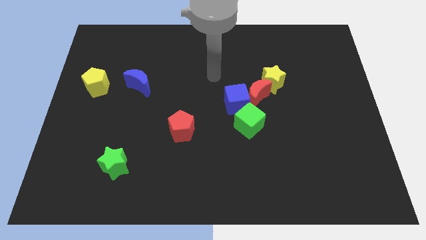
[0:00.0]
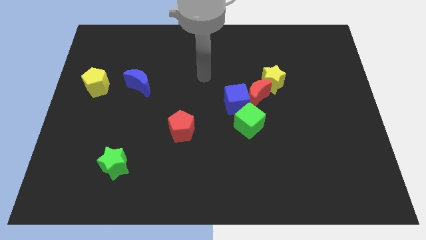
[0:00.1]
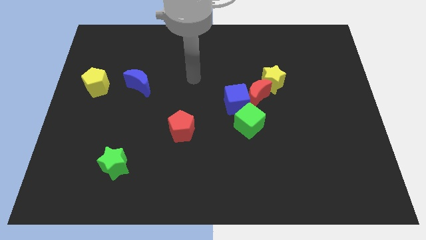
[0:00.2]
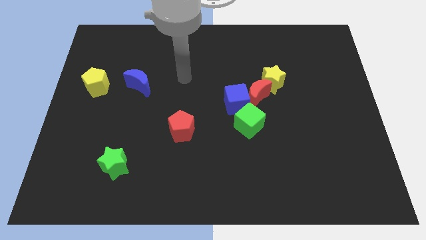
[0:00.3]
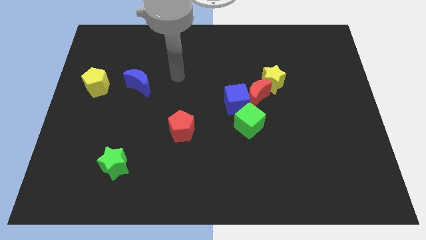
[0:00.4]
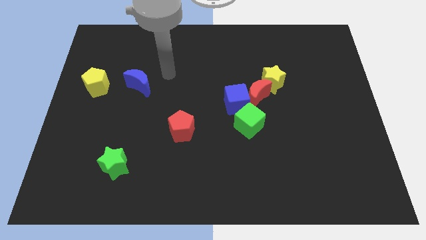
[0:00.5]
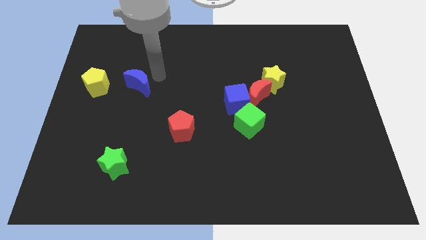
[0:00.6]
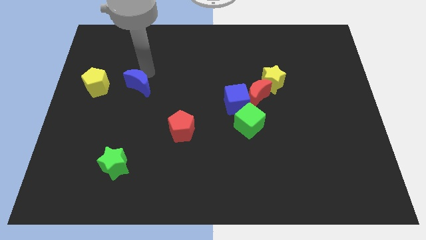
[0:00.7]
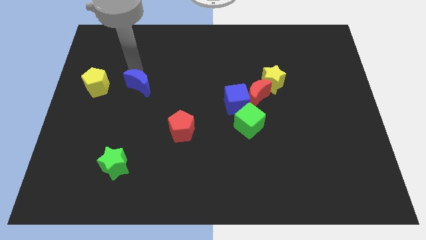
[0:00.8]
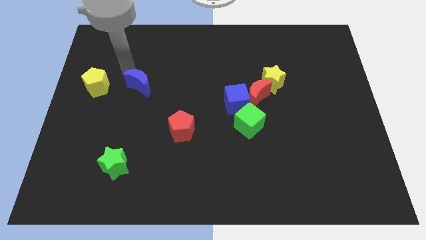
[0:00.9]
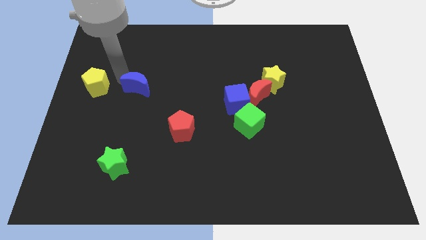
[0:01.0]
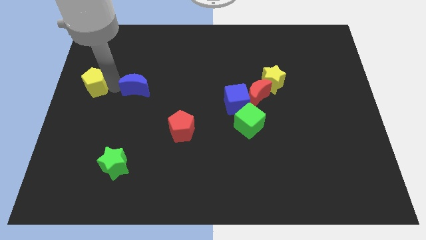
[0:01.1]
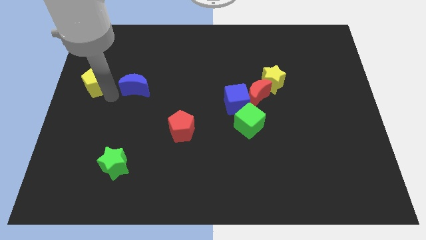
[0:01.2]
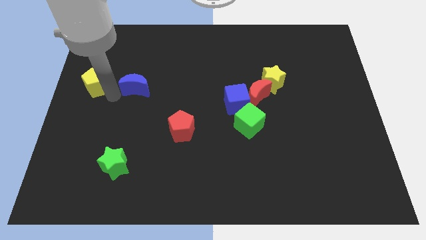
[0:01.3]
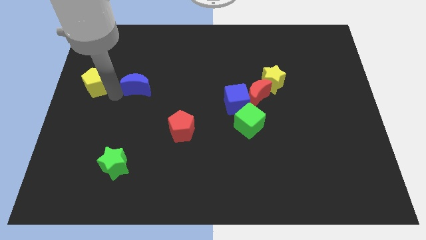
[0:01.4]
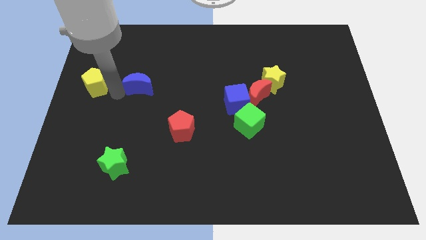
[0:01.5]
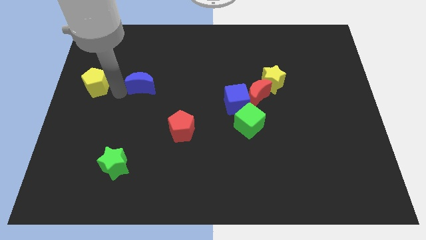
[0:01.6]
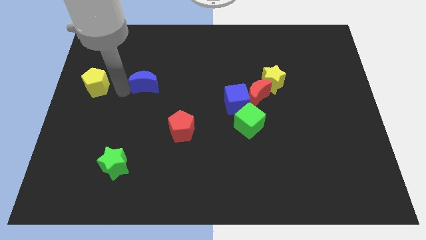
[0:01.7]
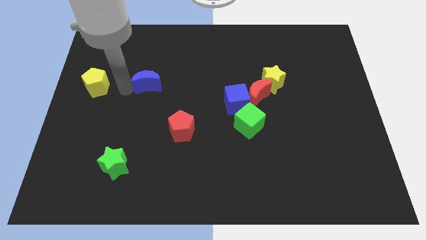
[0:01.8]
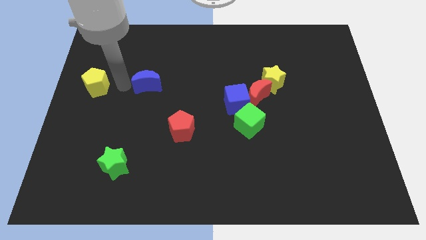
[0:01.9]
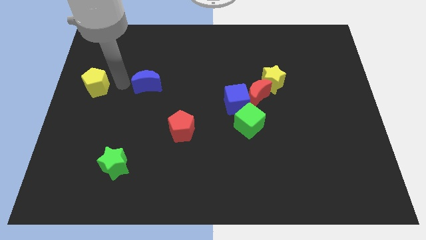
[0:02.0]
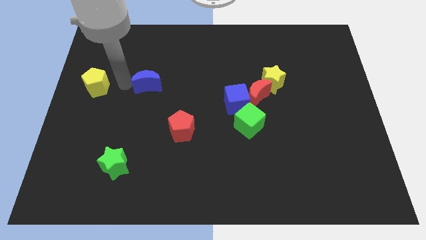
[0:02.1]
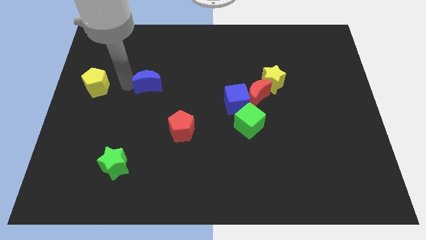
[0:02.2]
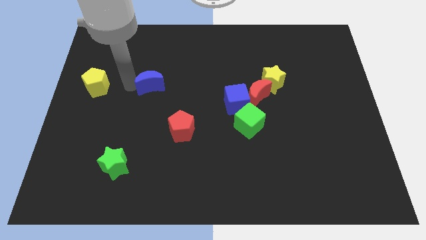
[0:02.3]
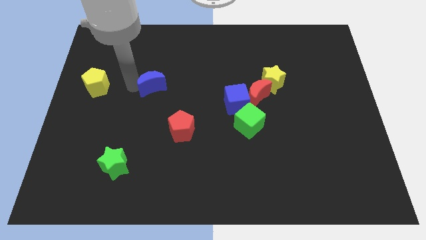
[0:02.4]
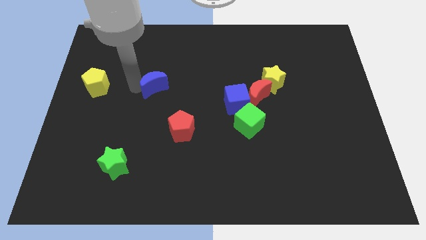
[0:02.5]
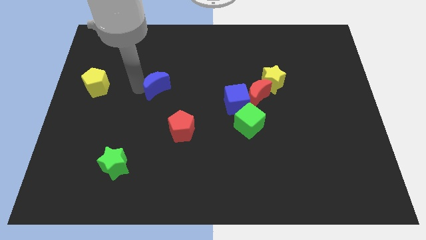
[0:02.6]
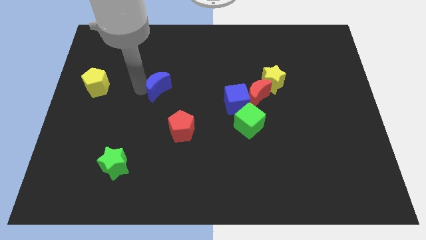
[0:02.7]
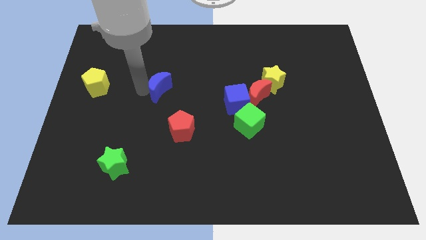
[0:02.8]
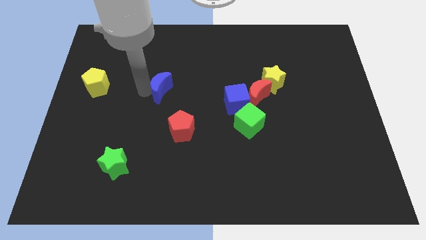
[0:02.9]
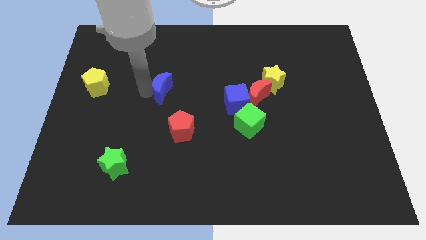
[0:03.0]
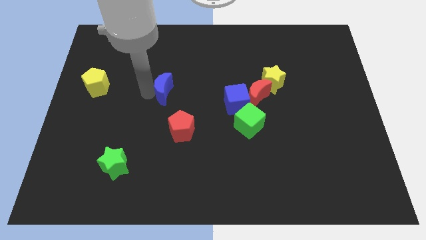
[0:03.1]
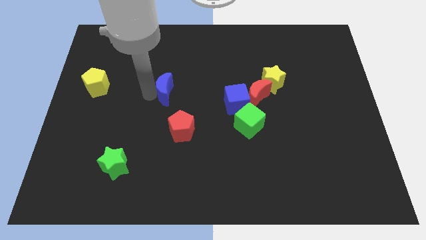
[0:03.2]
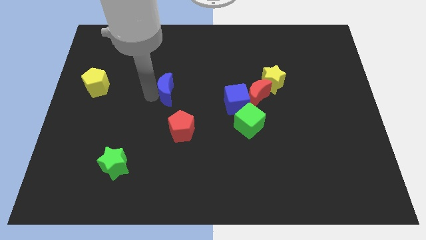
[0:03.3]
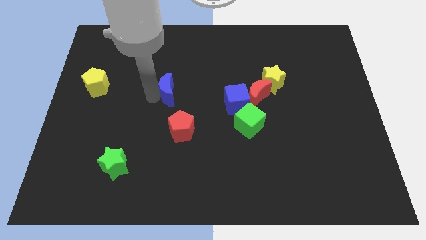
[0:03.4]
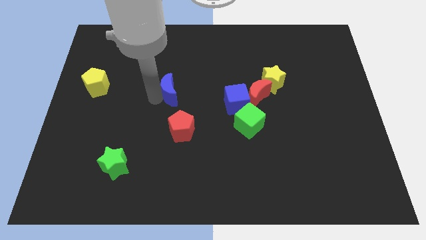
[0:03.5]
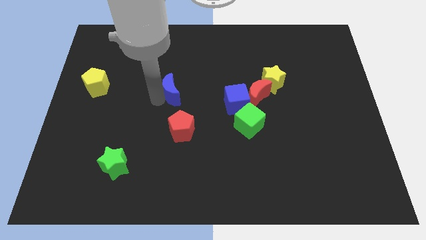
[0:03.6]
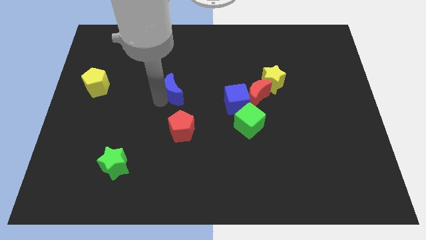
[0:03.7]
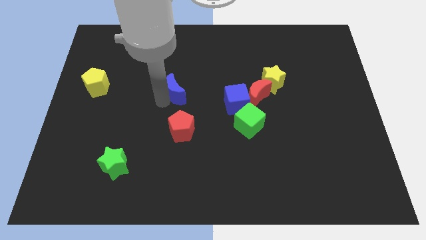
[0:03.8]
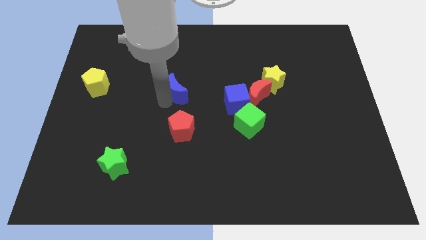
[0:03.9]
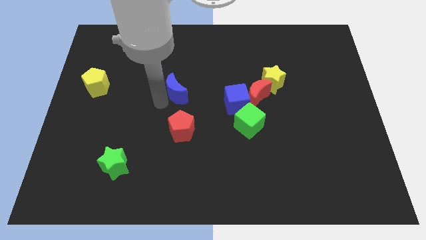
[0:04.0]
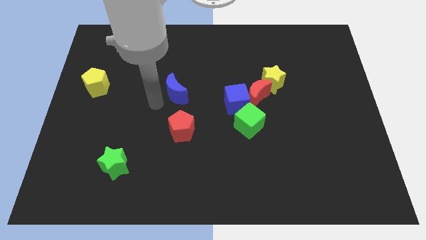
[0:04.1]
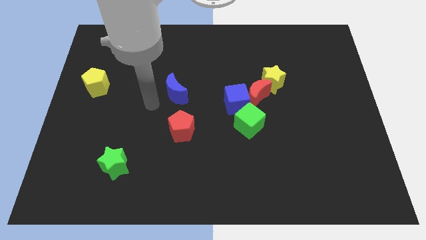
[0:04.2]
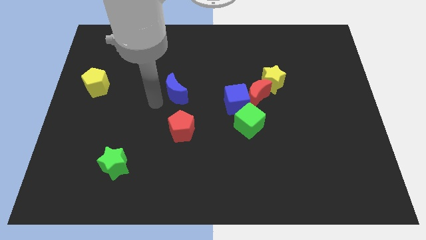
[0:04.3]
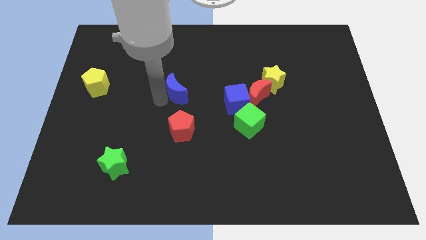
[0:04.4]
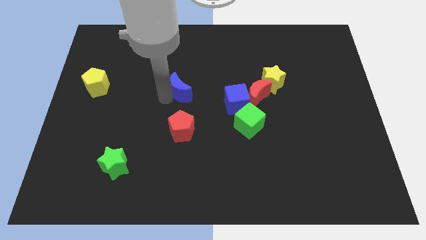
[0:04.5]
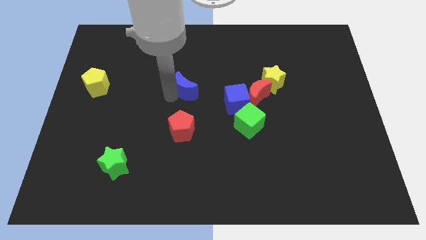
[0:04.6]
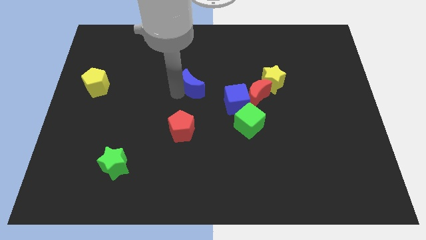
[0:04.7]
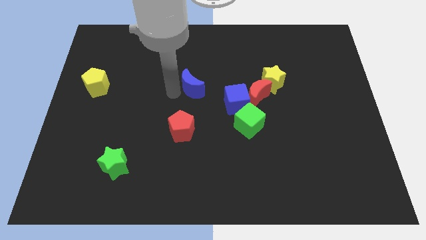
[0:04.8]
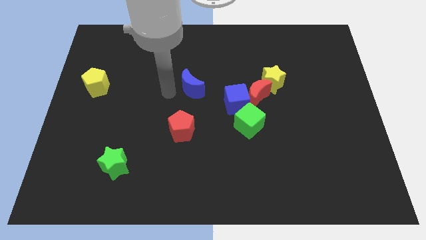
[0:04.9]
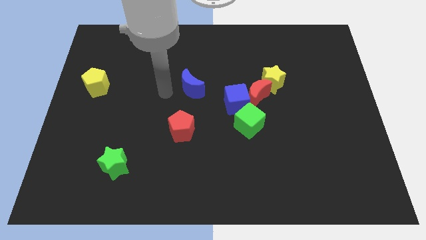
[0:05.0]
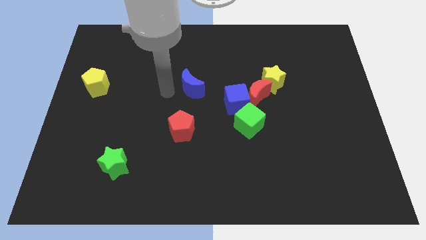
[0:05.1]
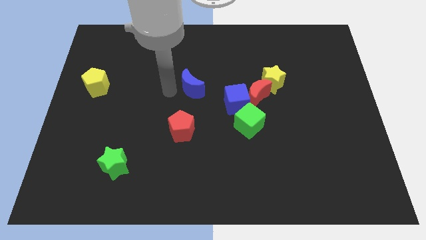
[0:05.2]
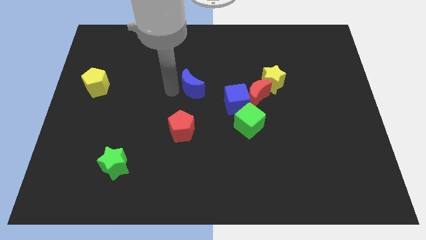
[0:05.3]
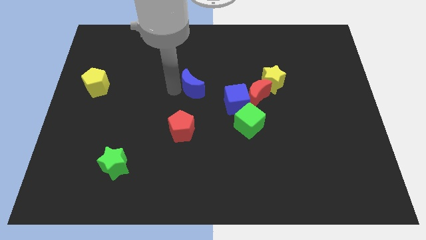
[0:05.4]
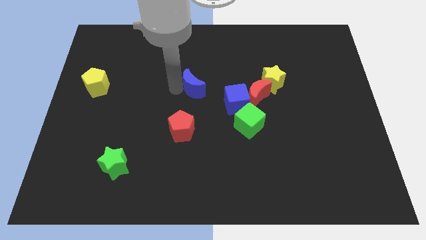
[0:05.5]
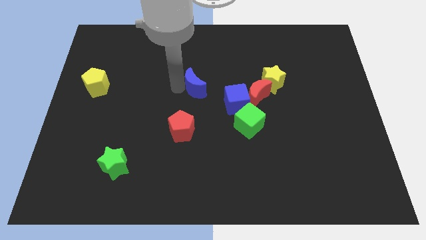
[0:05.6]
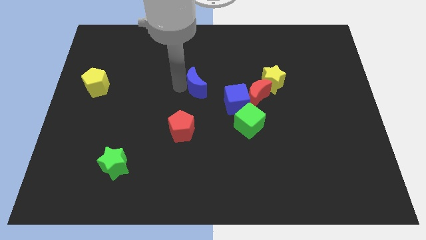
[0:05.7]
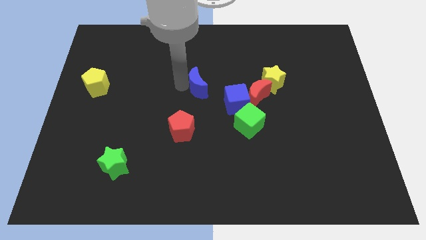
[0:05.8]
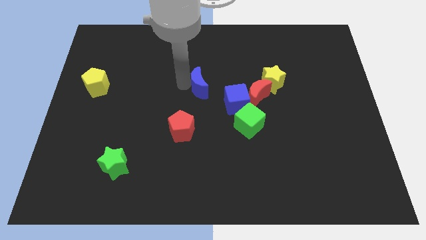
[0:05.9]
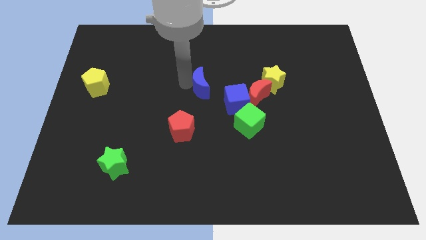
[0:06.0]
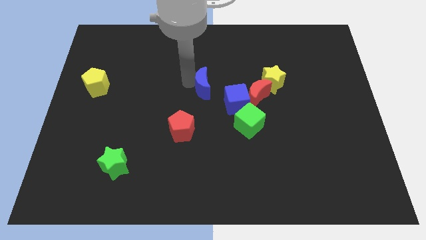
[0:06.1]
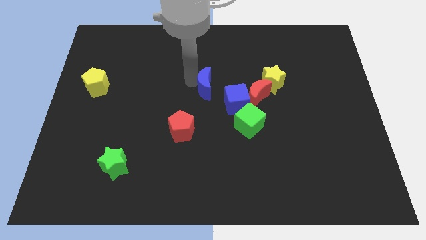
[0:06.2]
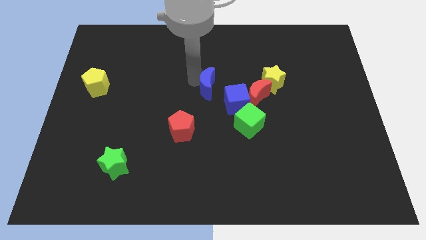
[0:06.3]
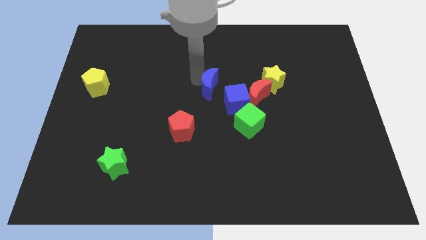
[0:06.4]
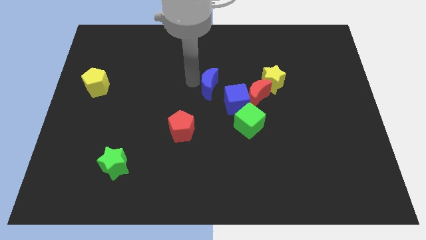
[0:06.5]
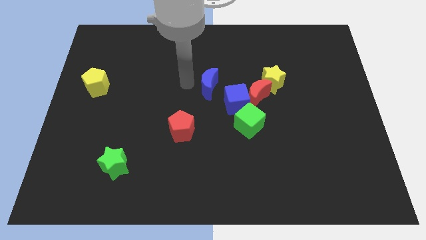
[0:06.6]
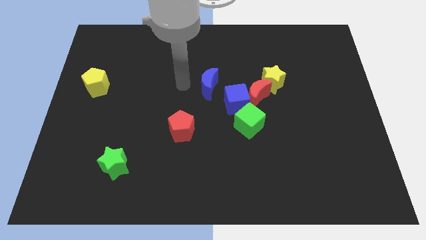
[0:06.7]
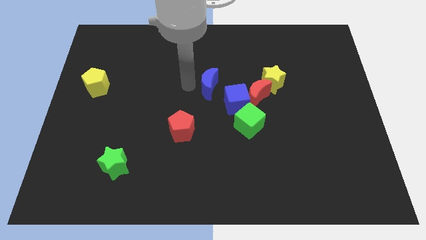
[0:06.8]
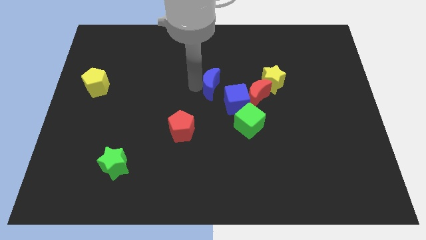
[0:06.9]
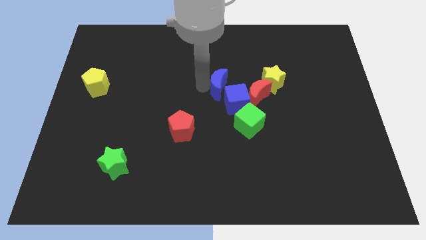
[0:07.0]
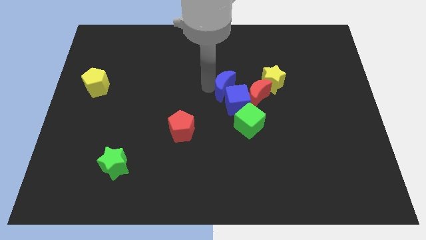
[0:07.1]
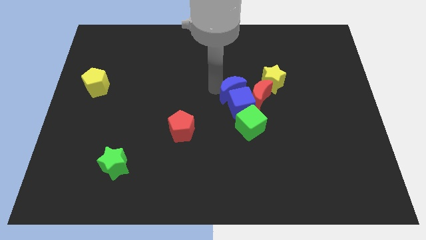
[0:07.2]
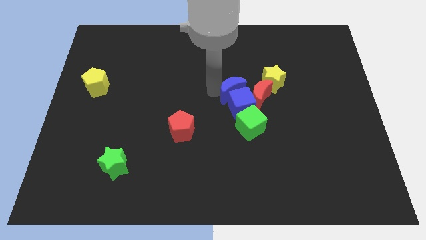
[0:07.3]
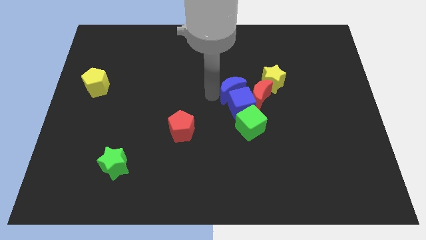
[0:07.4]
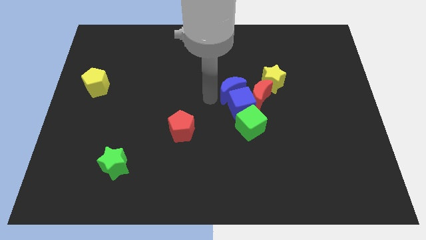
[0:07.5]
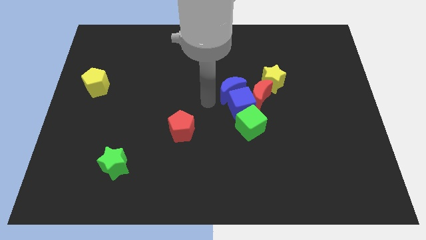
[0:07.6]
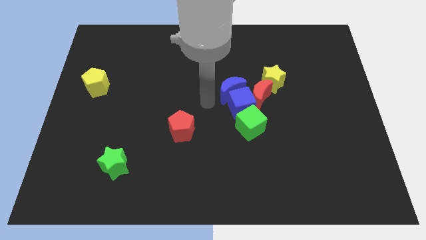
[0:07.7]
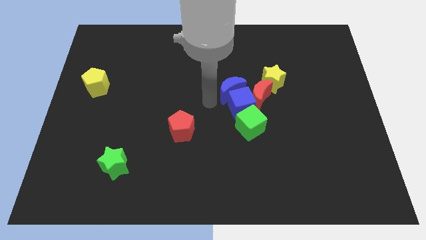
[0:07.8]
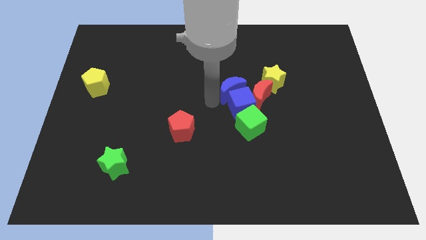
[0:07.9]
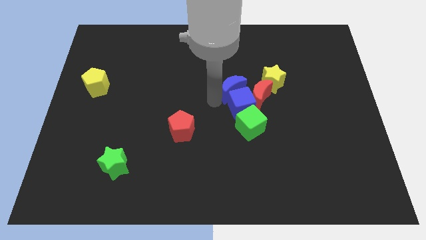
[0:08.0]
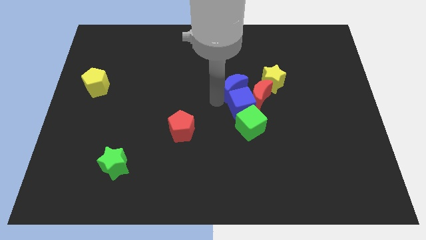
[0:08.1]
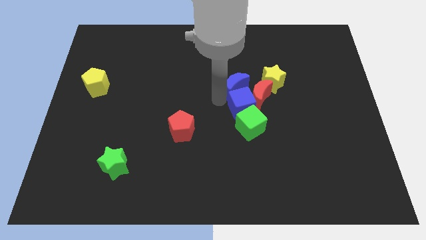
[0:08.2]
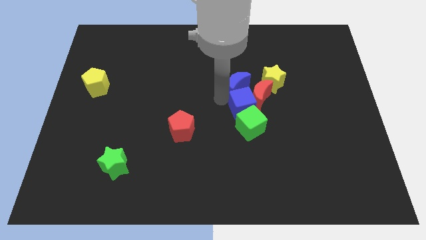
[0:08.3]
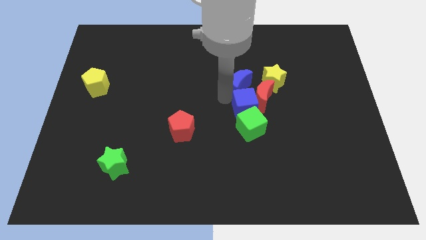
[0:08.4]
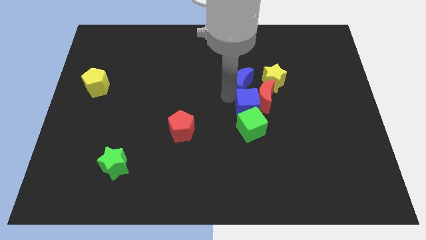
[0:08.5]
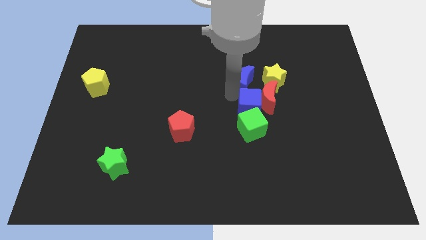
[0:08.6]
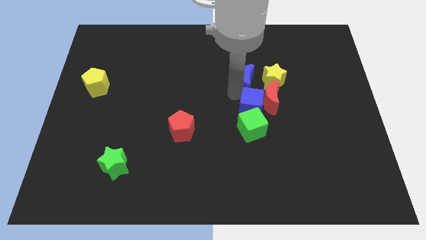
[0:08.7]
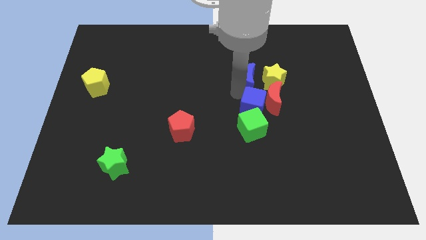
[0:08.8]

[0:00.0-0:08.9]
push the blue moon to the yellow star
